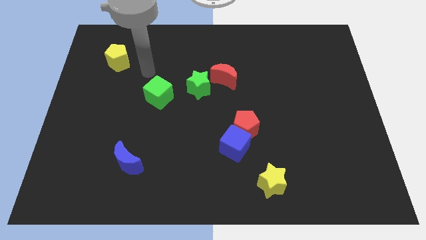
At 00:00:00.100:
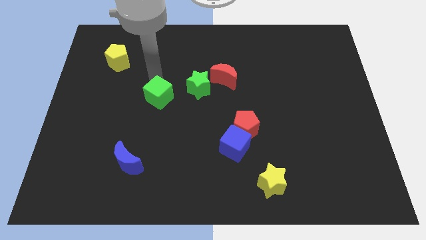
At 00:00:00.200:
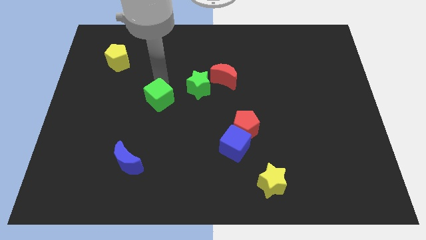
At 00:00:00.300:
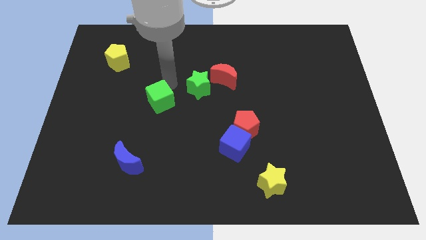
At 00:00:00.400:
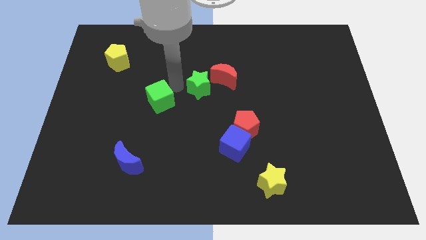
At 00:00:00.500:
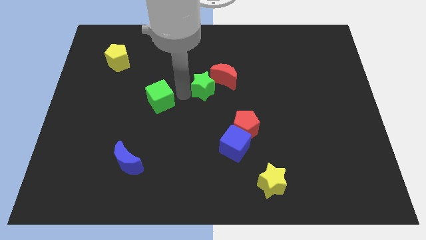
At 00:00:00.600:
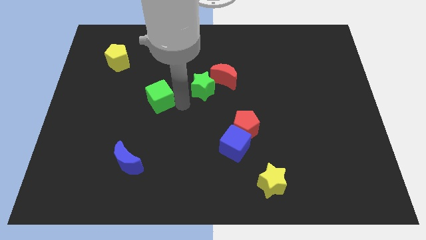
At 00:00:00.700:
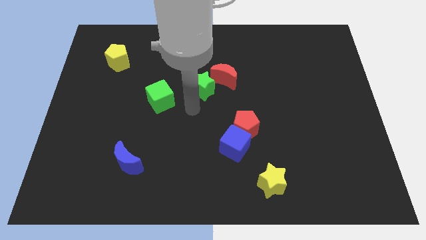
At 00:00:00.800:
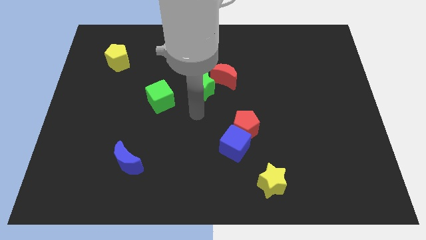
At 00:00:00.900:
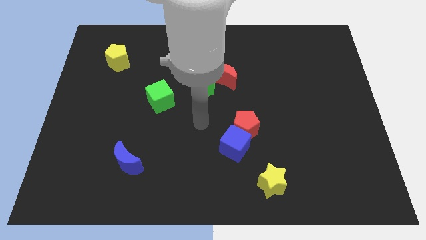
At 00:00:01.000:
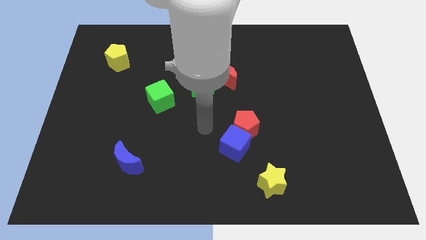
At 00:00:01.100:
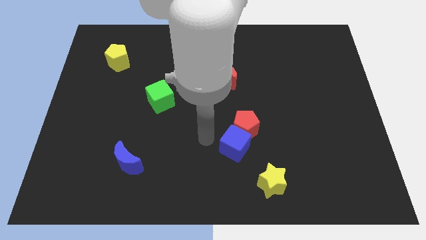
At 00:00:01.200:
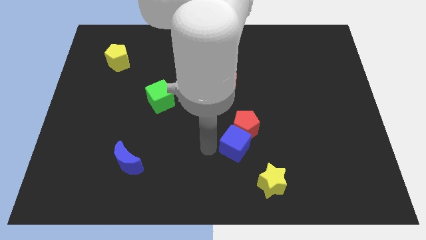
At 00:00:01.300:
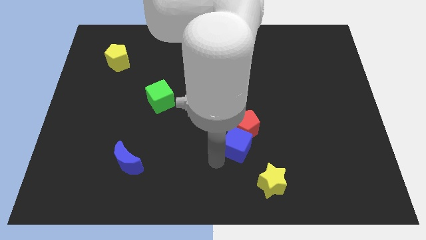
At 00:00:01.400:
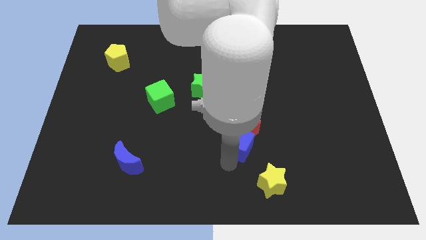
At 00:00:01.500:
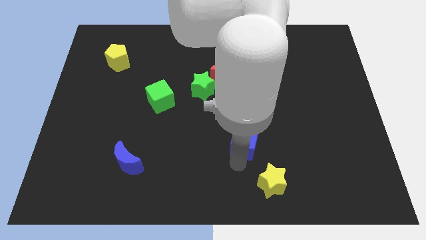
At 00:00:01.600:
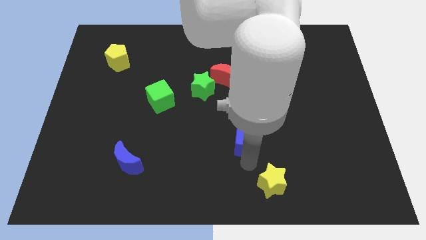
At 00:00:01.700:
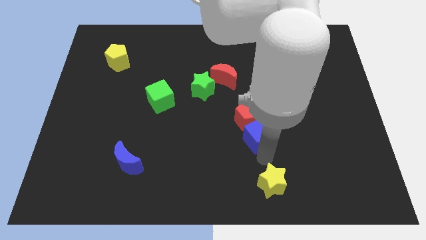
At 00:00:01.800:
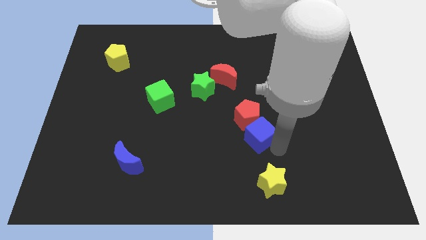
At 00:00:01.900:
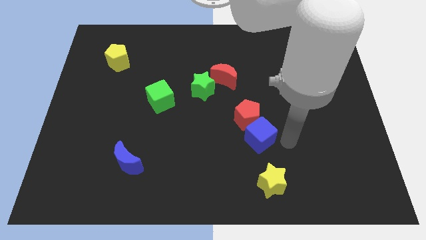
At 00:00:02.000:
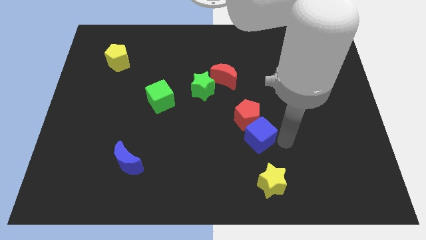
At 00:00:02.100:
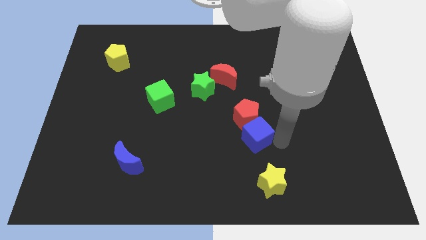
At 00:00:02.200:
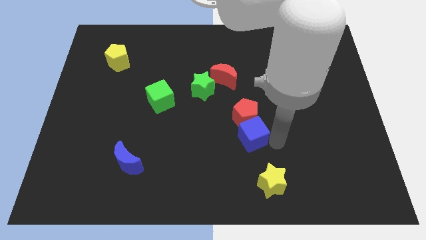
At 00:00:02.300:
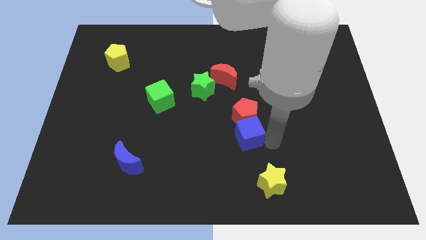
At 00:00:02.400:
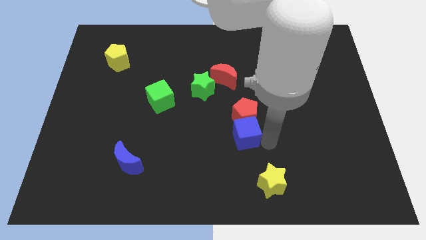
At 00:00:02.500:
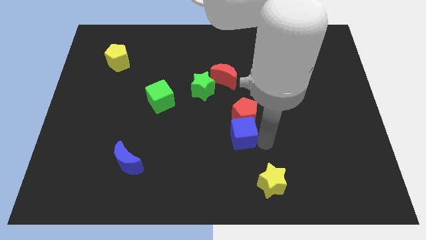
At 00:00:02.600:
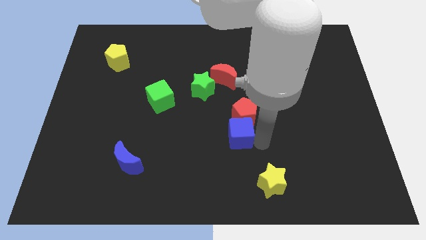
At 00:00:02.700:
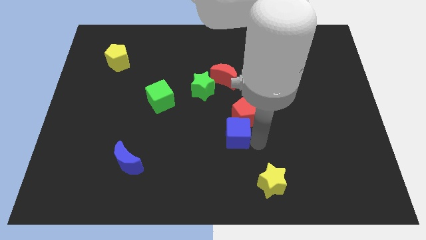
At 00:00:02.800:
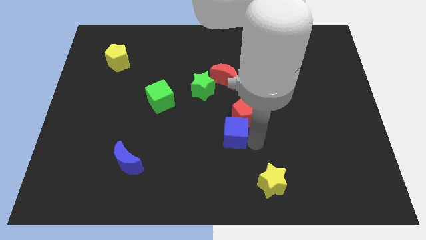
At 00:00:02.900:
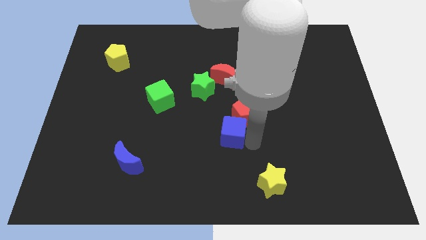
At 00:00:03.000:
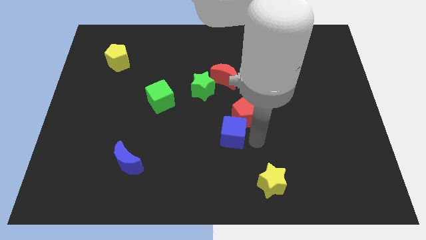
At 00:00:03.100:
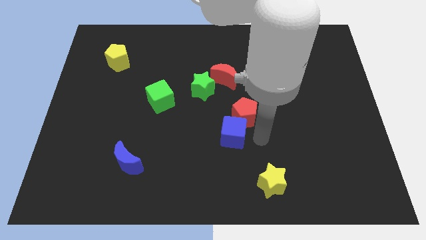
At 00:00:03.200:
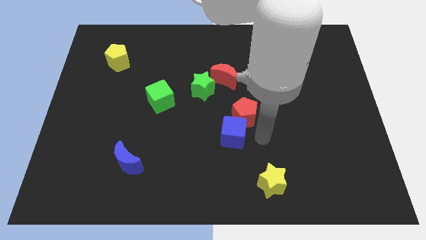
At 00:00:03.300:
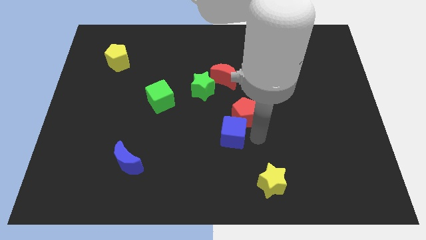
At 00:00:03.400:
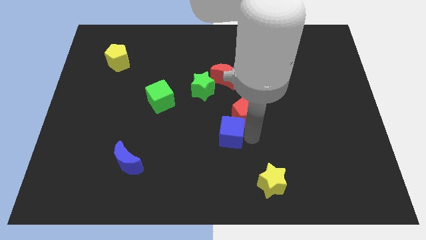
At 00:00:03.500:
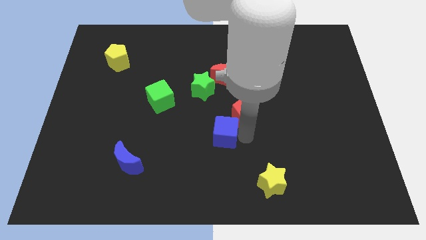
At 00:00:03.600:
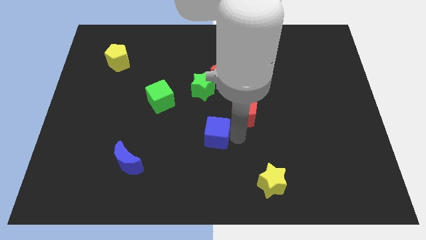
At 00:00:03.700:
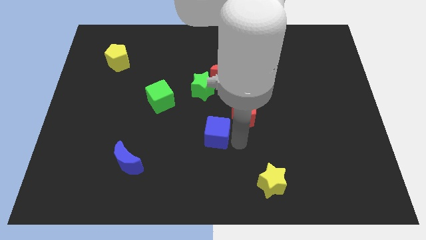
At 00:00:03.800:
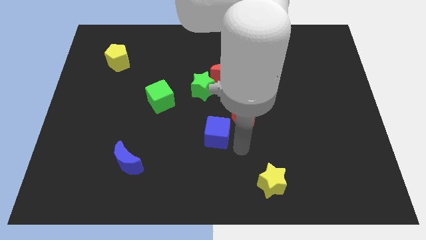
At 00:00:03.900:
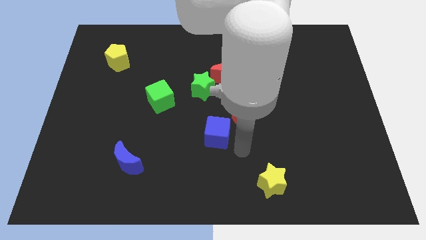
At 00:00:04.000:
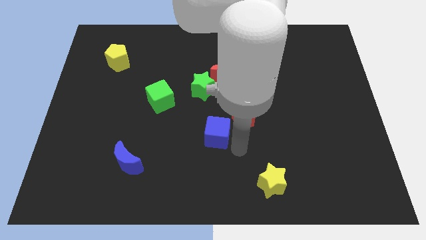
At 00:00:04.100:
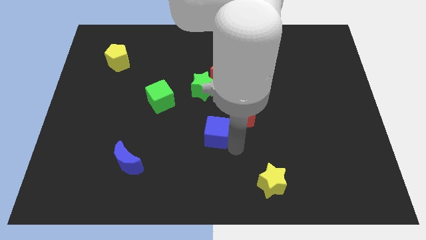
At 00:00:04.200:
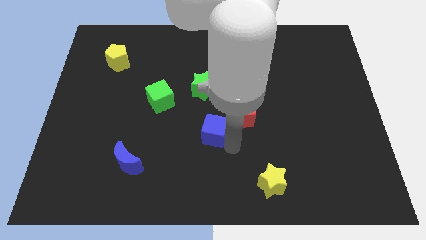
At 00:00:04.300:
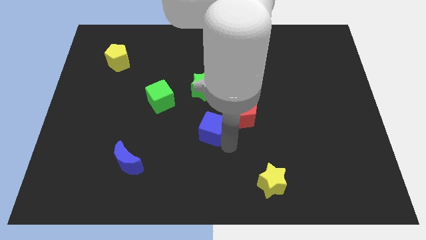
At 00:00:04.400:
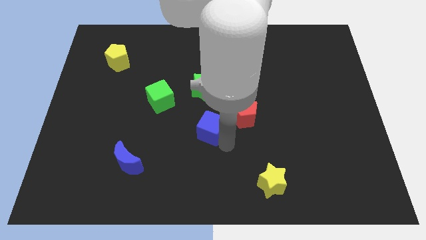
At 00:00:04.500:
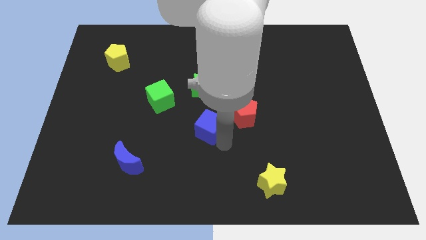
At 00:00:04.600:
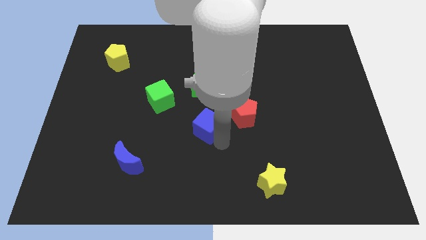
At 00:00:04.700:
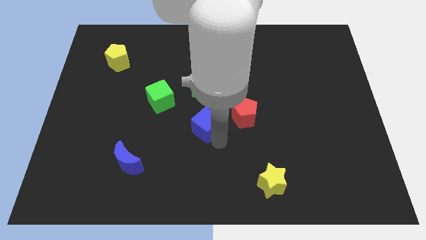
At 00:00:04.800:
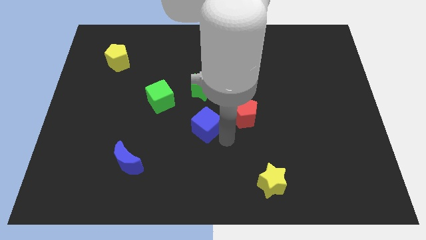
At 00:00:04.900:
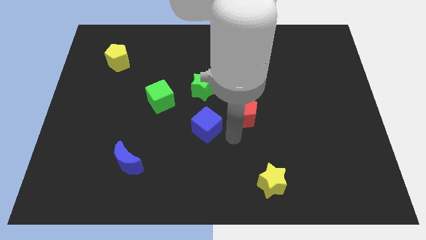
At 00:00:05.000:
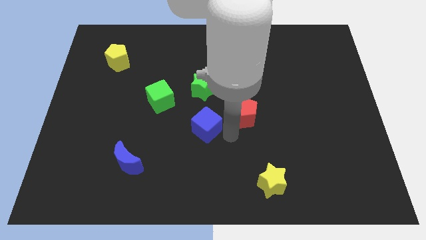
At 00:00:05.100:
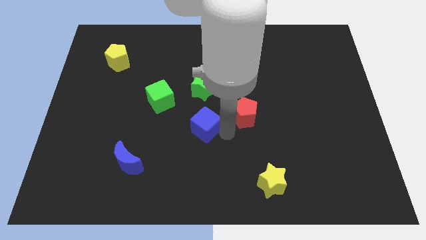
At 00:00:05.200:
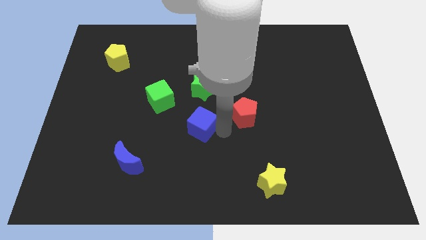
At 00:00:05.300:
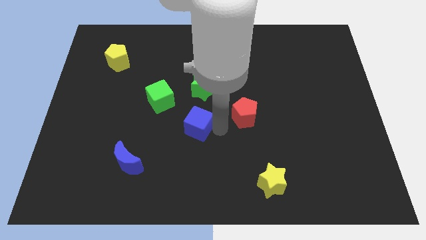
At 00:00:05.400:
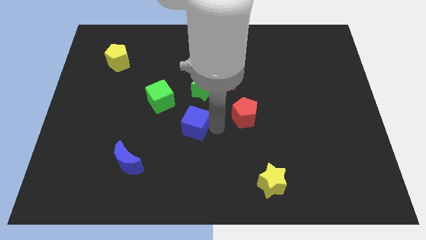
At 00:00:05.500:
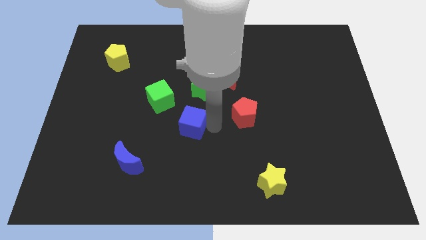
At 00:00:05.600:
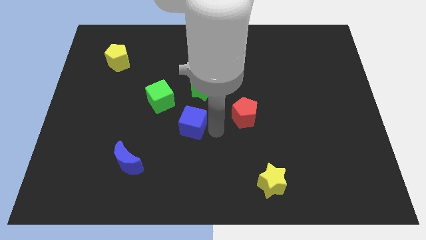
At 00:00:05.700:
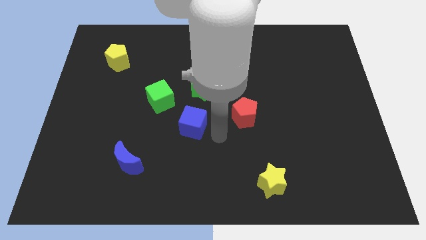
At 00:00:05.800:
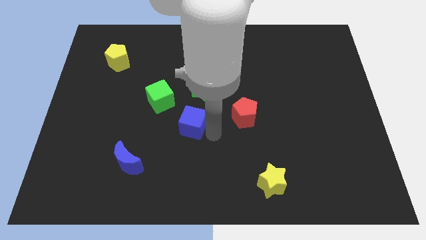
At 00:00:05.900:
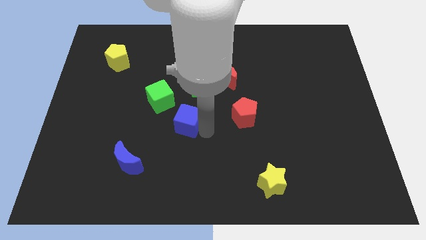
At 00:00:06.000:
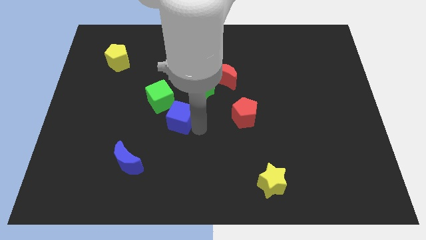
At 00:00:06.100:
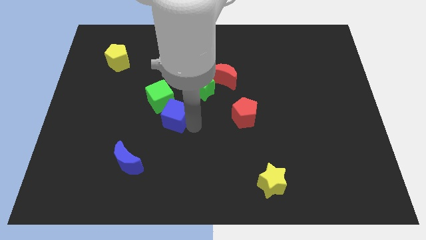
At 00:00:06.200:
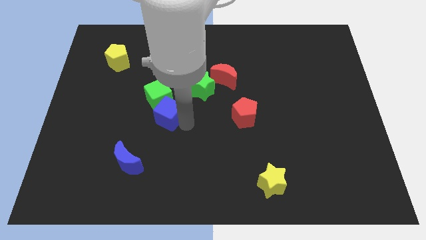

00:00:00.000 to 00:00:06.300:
move the blue cube towards the green cube

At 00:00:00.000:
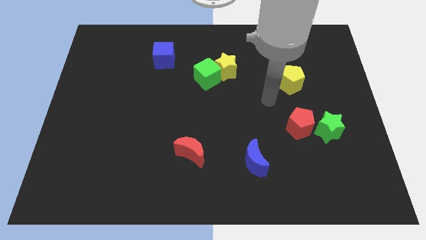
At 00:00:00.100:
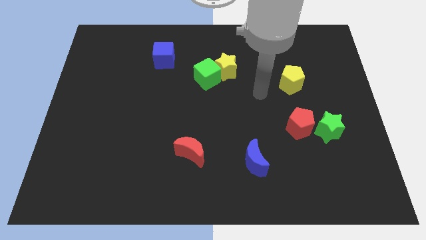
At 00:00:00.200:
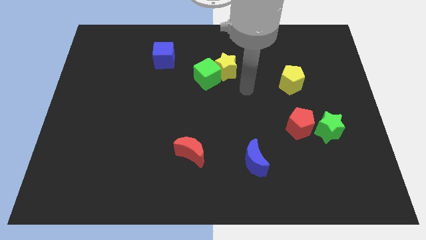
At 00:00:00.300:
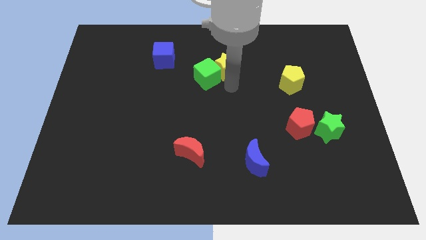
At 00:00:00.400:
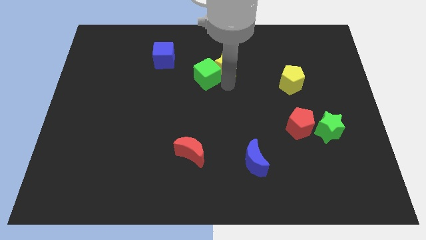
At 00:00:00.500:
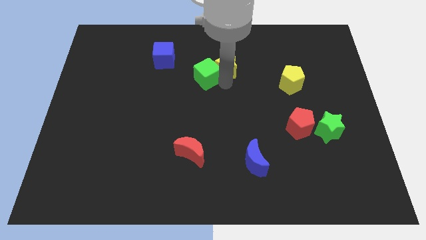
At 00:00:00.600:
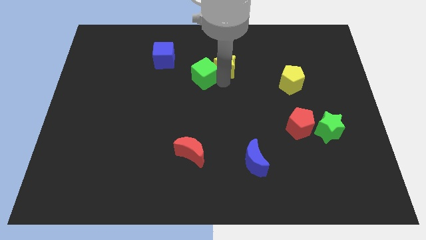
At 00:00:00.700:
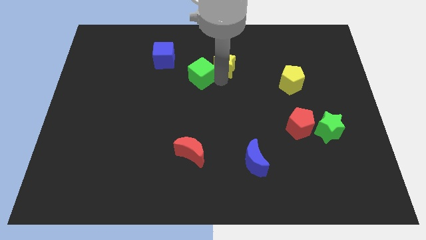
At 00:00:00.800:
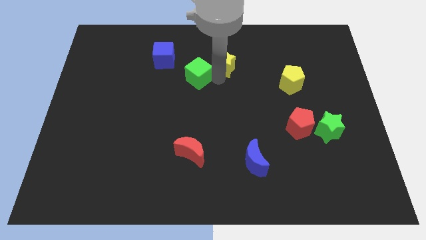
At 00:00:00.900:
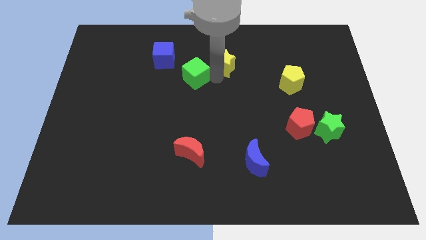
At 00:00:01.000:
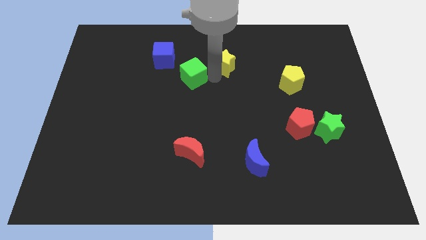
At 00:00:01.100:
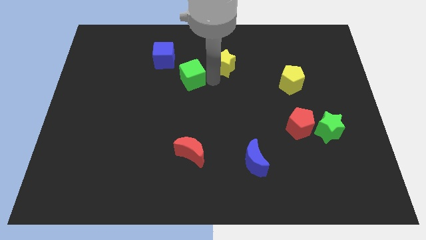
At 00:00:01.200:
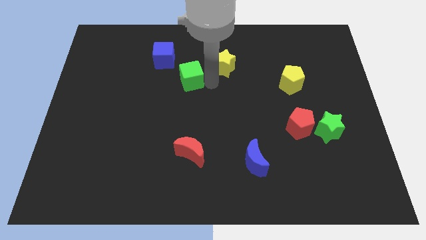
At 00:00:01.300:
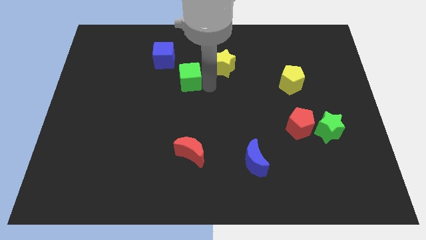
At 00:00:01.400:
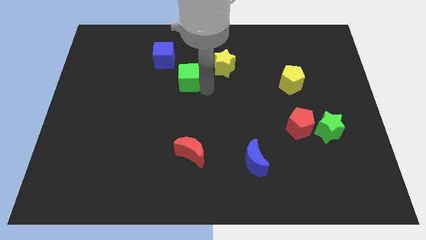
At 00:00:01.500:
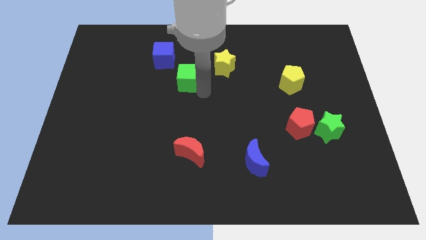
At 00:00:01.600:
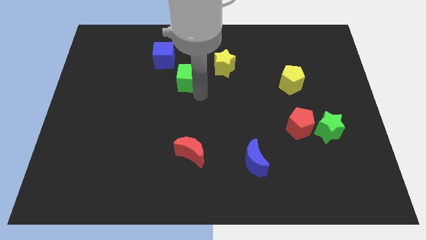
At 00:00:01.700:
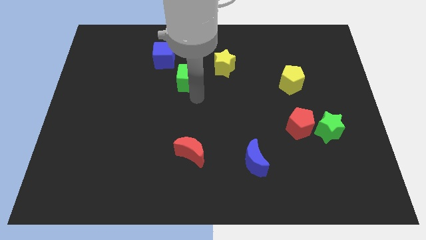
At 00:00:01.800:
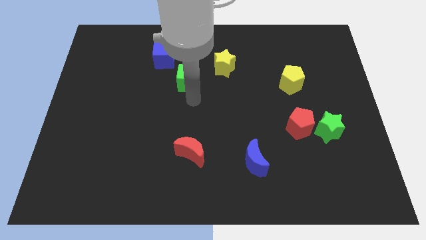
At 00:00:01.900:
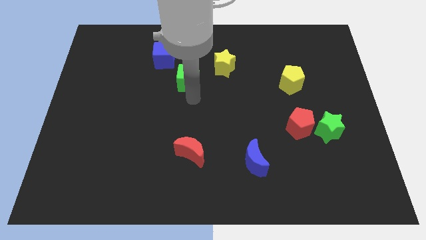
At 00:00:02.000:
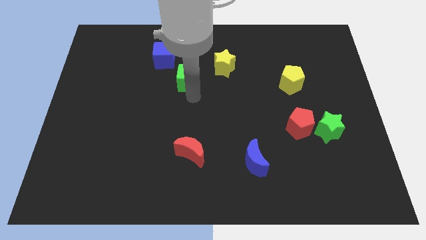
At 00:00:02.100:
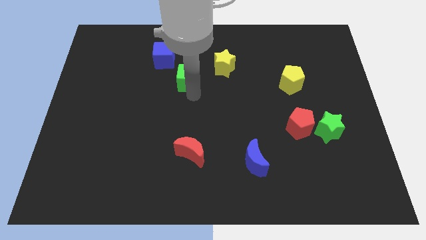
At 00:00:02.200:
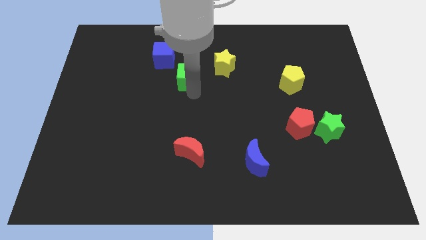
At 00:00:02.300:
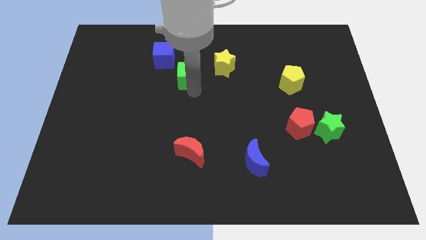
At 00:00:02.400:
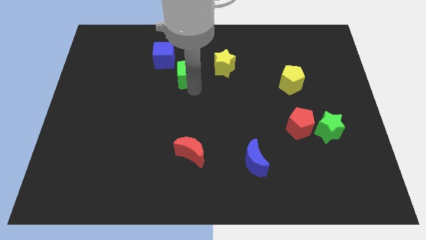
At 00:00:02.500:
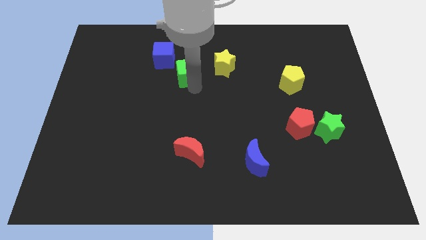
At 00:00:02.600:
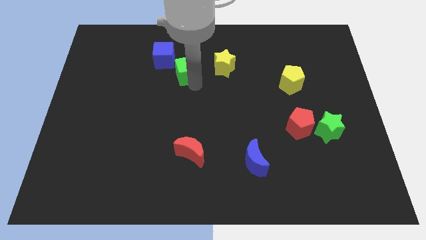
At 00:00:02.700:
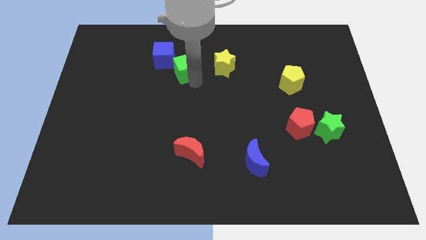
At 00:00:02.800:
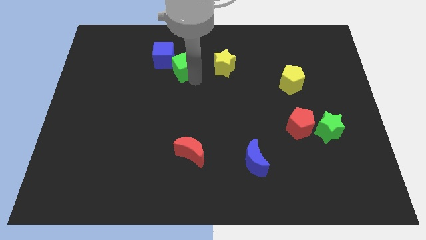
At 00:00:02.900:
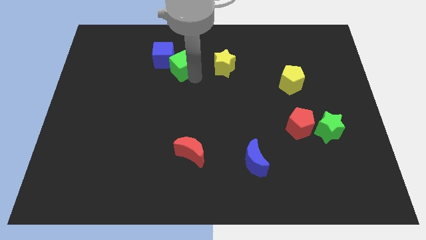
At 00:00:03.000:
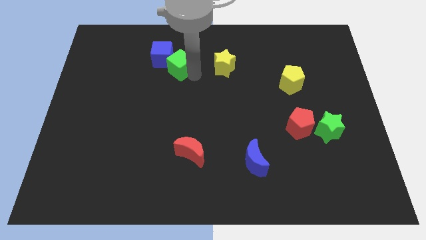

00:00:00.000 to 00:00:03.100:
put the green cube next to the blue cube
